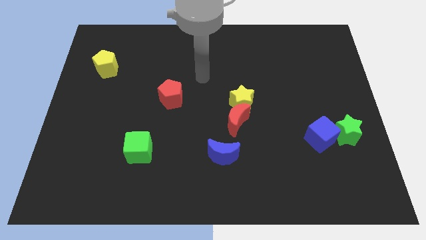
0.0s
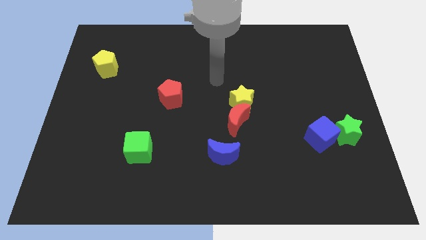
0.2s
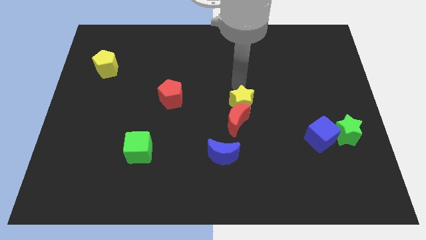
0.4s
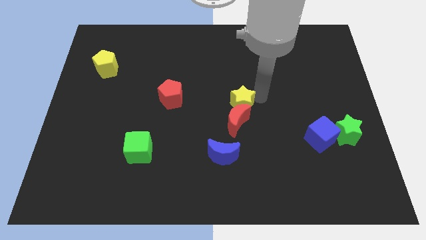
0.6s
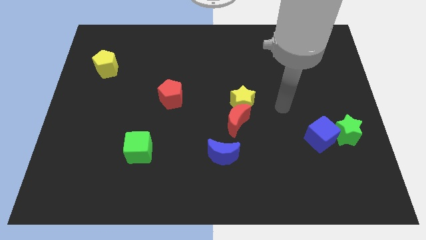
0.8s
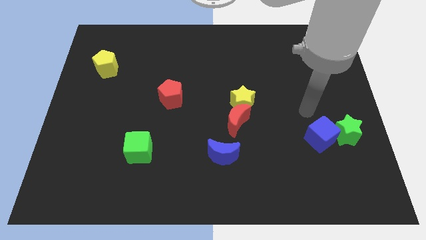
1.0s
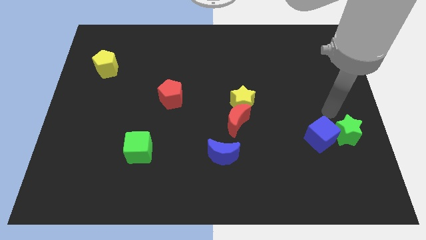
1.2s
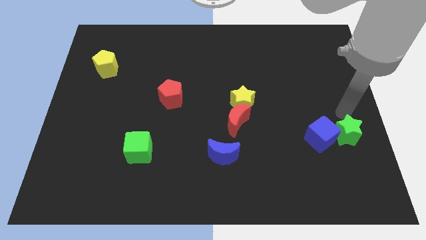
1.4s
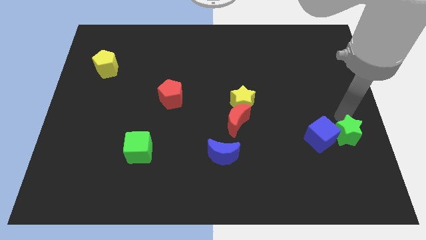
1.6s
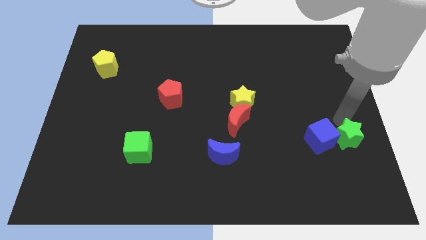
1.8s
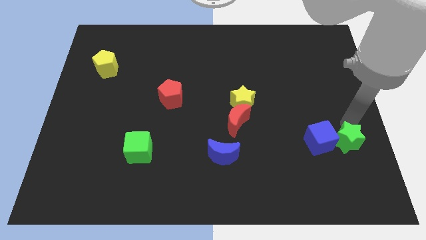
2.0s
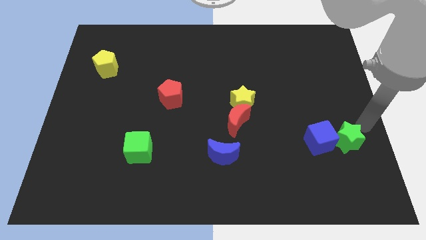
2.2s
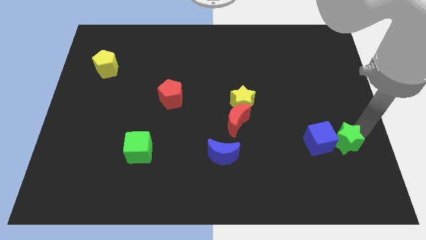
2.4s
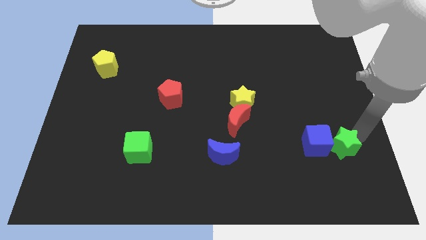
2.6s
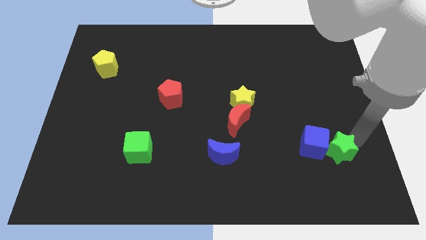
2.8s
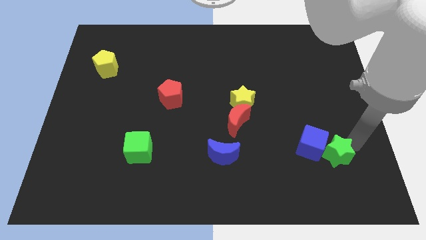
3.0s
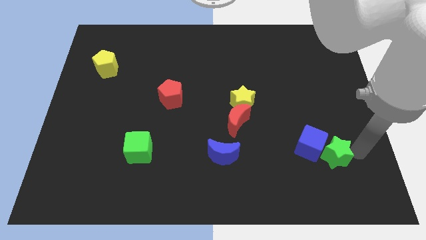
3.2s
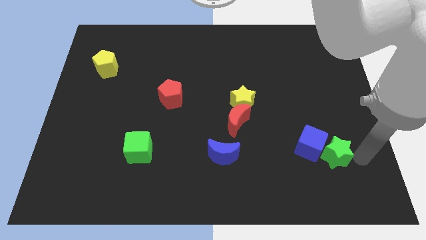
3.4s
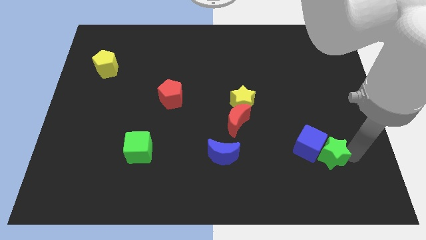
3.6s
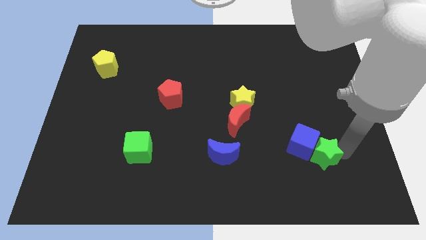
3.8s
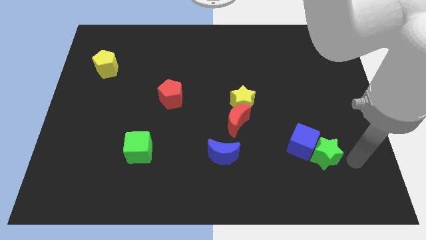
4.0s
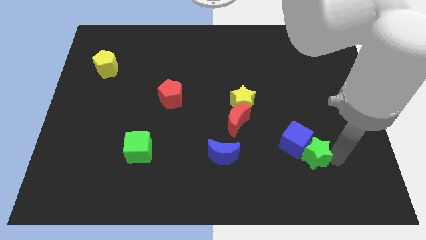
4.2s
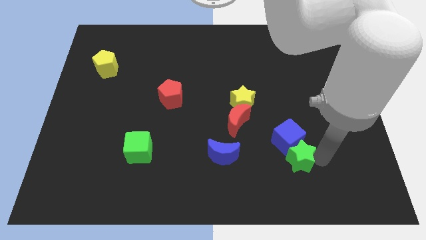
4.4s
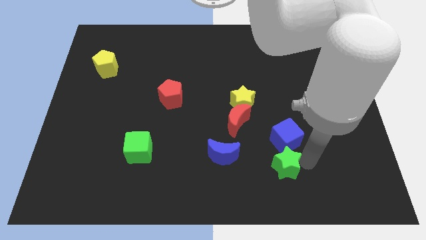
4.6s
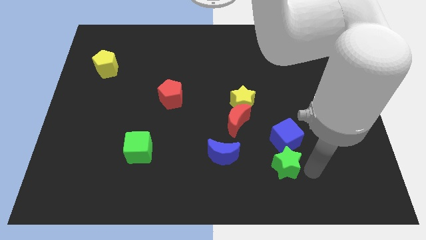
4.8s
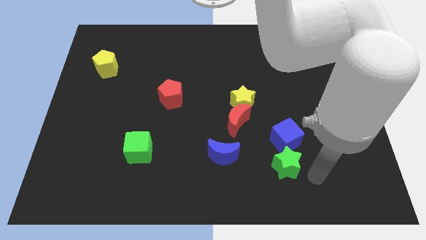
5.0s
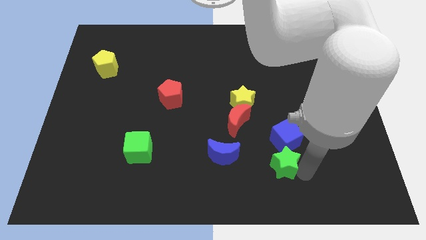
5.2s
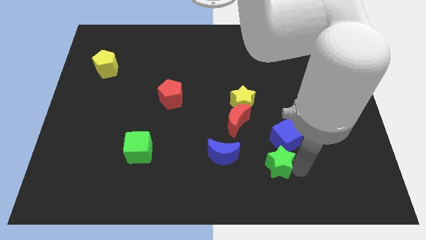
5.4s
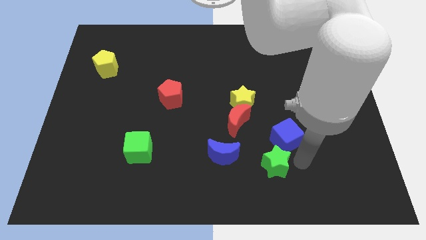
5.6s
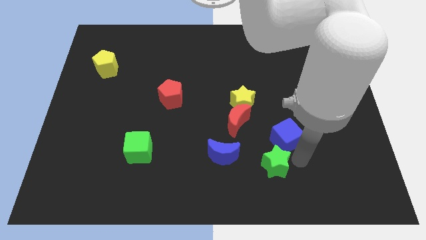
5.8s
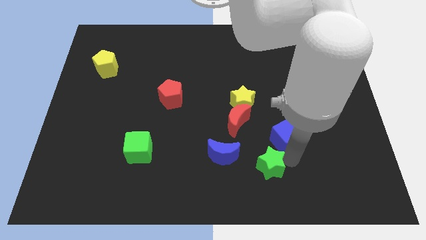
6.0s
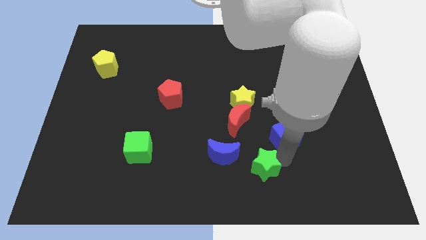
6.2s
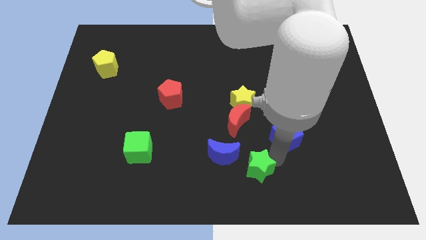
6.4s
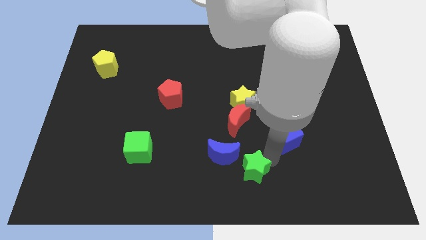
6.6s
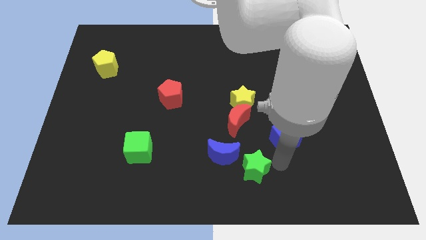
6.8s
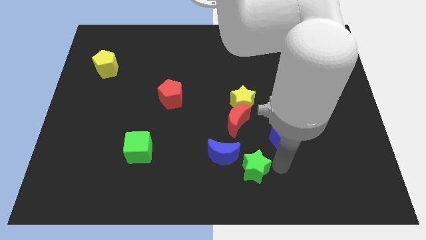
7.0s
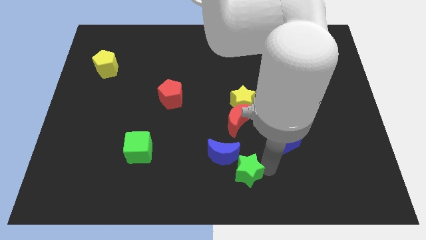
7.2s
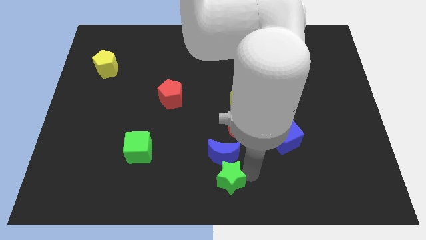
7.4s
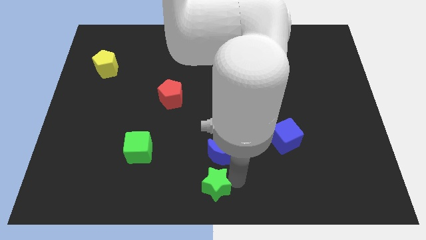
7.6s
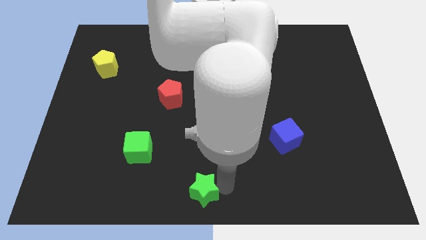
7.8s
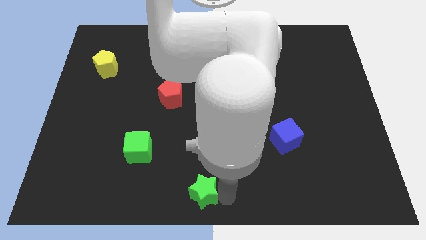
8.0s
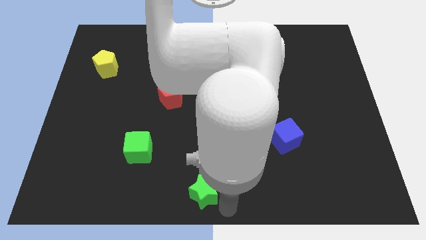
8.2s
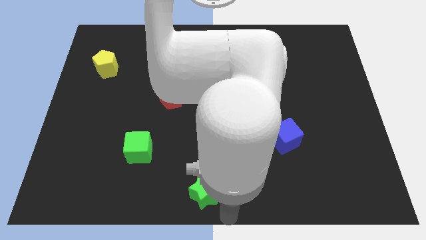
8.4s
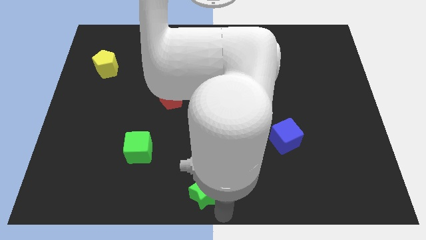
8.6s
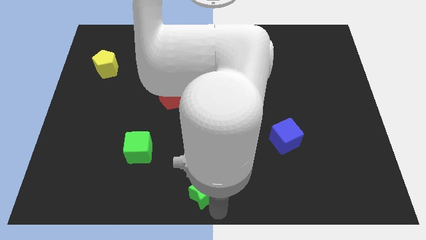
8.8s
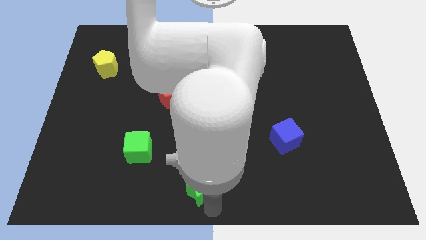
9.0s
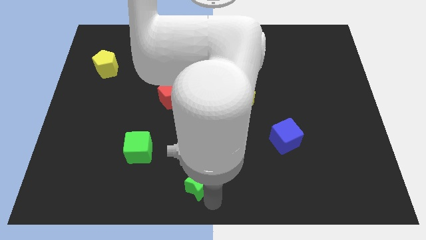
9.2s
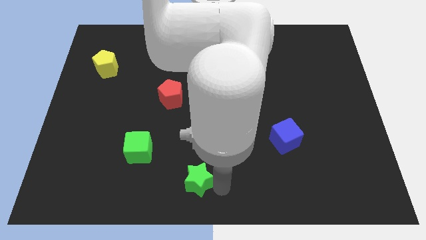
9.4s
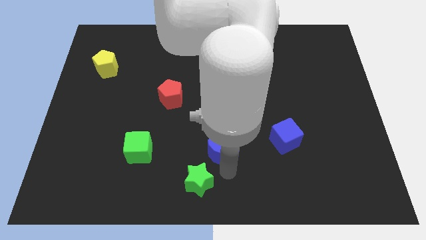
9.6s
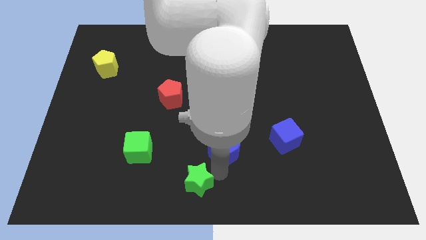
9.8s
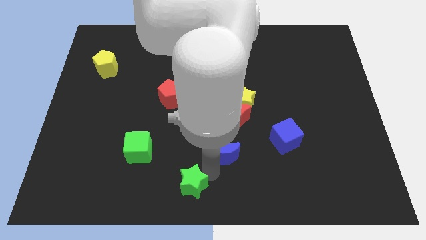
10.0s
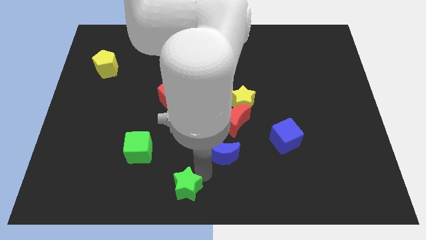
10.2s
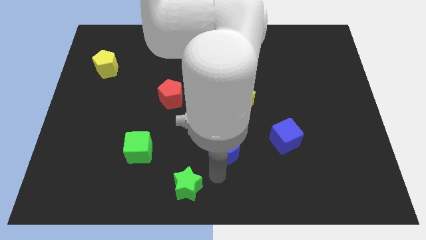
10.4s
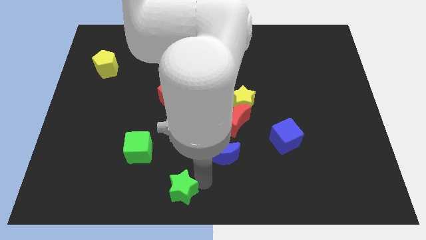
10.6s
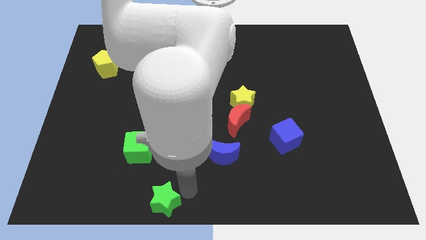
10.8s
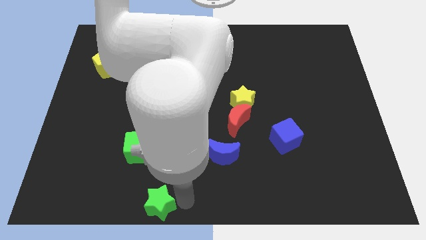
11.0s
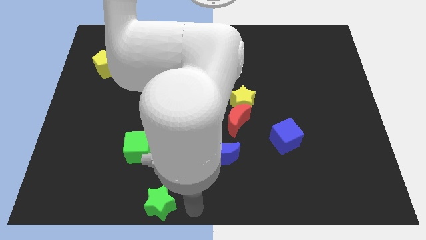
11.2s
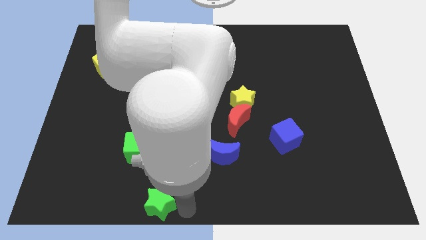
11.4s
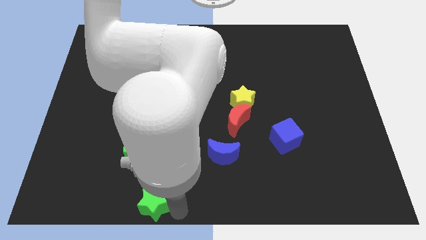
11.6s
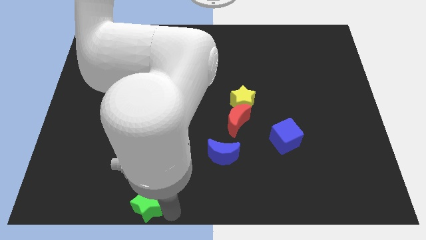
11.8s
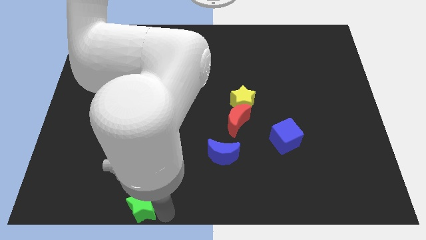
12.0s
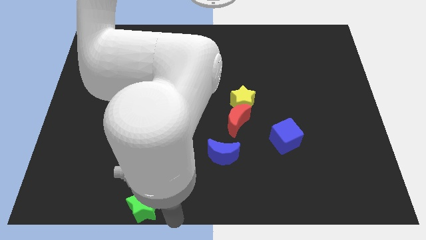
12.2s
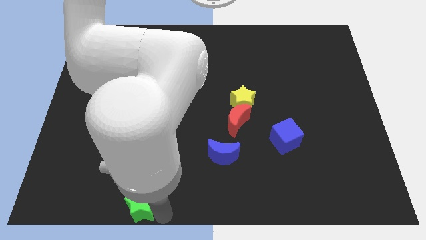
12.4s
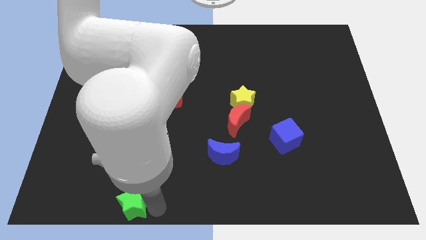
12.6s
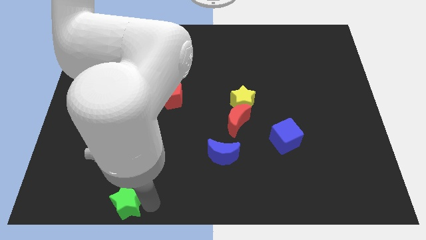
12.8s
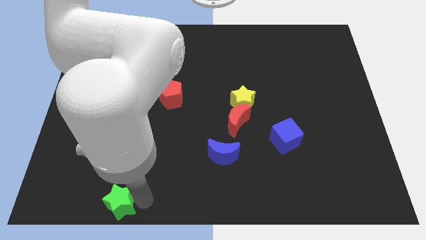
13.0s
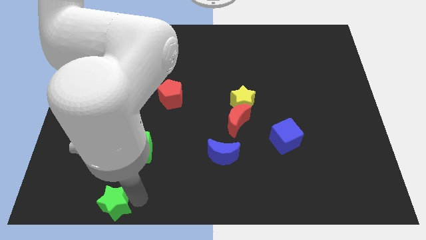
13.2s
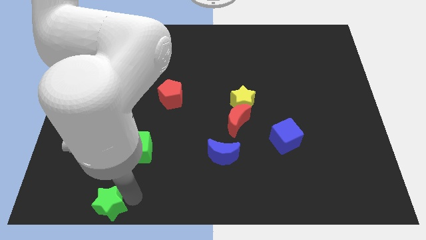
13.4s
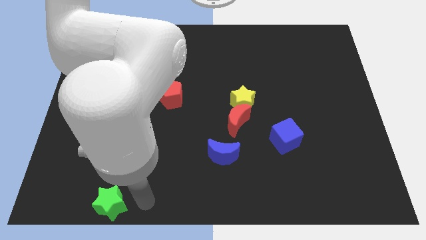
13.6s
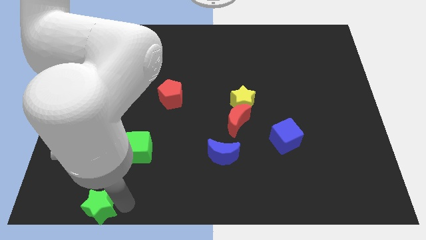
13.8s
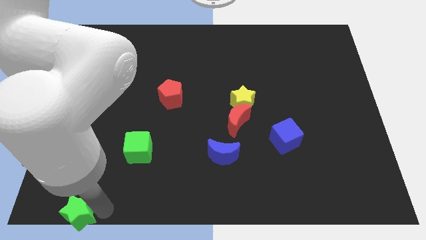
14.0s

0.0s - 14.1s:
move the green star to the lower left corner
